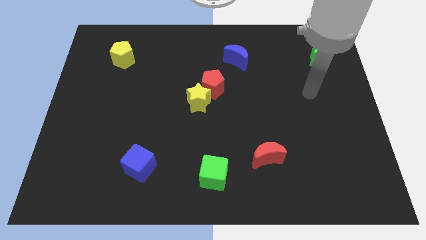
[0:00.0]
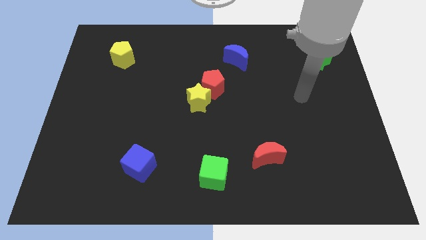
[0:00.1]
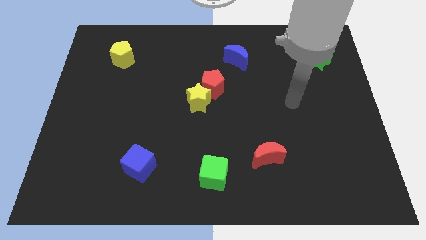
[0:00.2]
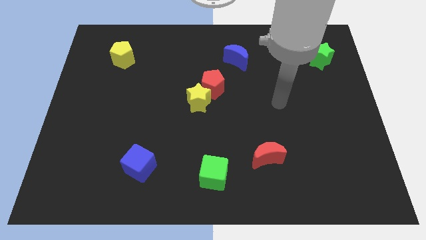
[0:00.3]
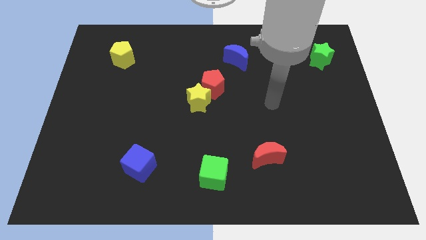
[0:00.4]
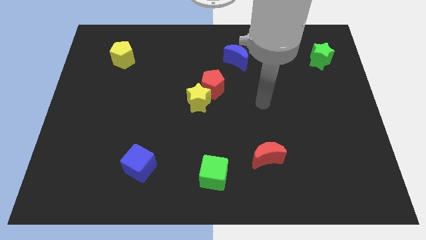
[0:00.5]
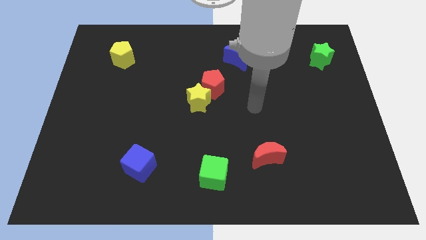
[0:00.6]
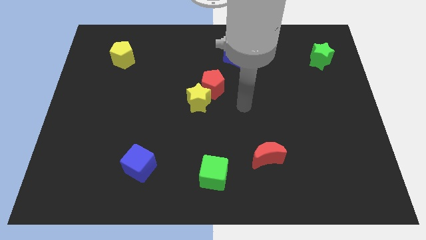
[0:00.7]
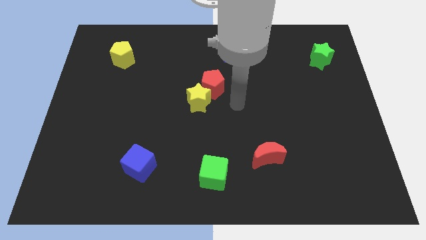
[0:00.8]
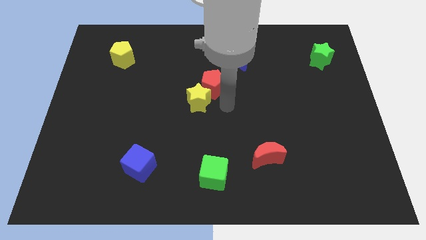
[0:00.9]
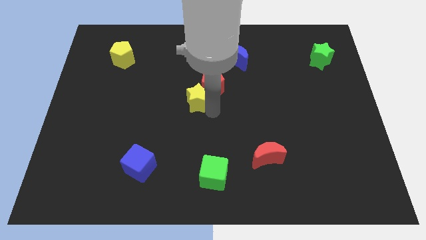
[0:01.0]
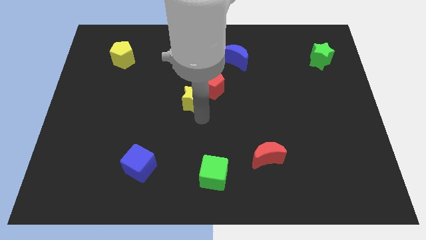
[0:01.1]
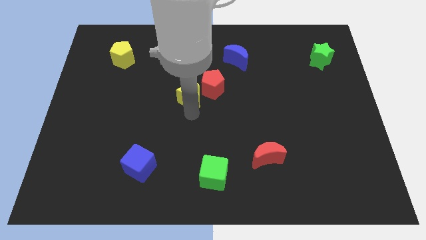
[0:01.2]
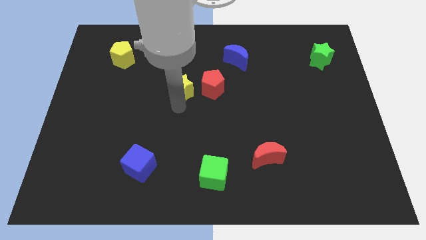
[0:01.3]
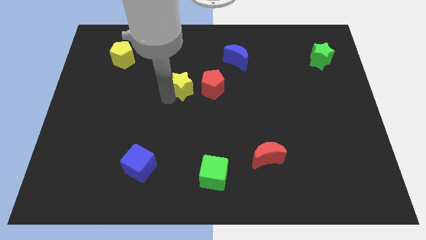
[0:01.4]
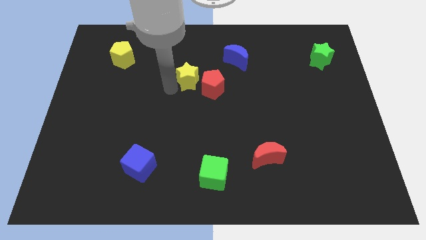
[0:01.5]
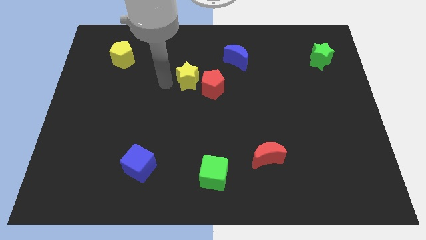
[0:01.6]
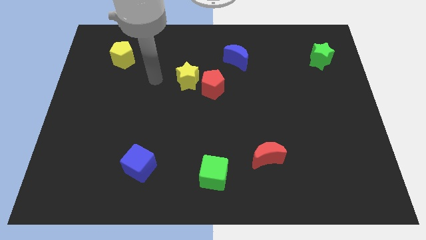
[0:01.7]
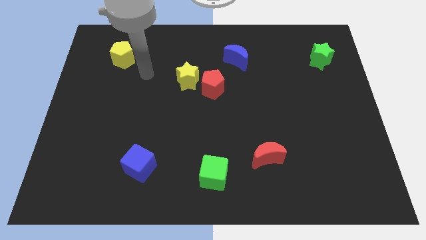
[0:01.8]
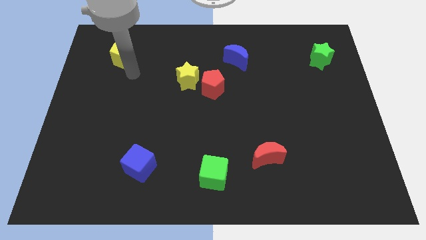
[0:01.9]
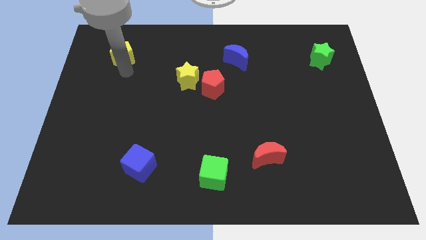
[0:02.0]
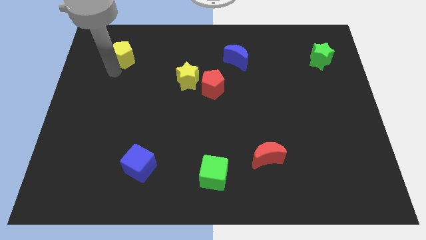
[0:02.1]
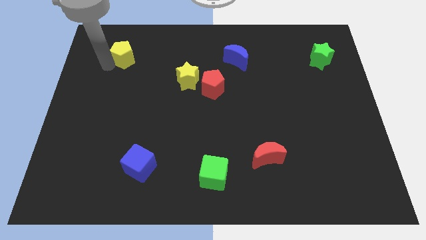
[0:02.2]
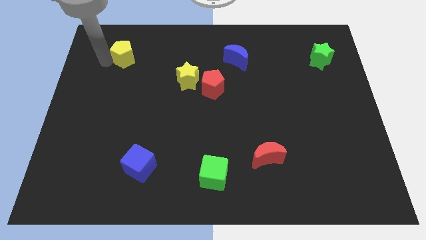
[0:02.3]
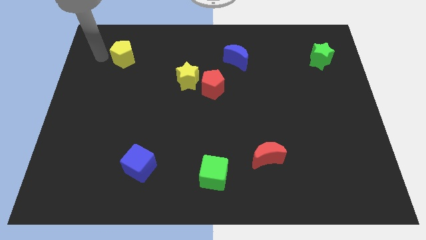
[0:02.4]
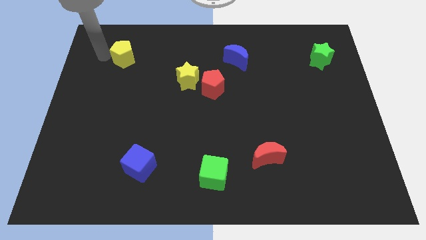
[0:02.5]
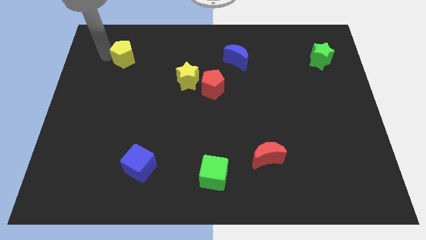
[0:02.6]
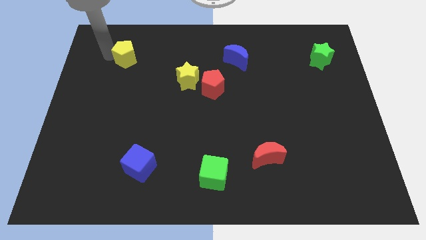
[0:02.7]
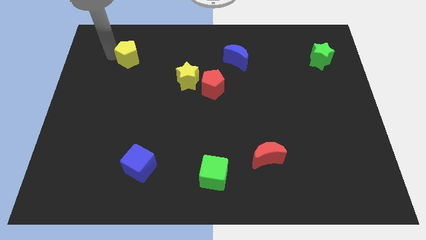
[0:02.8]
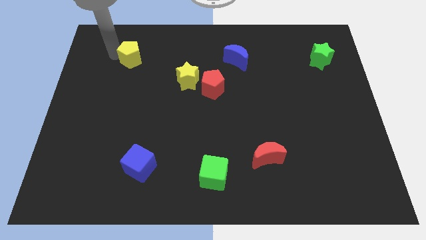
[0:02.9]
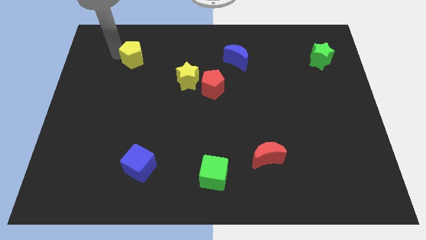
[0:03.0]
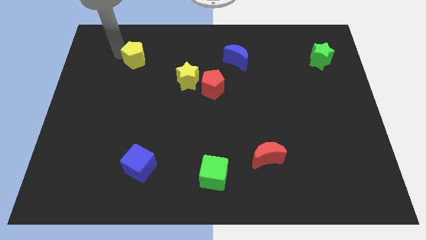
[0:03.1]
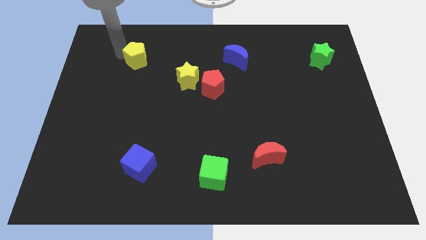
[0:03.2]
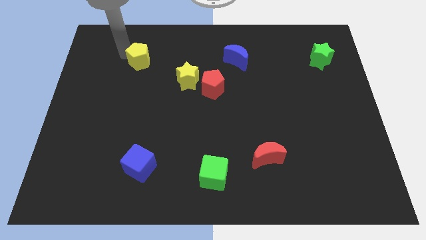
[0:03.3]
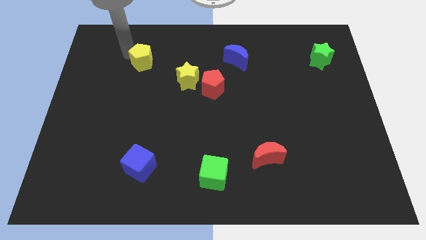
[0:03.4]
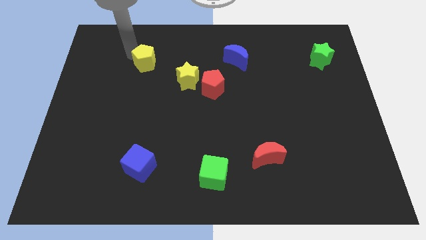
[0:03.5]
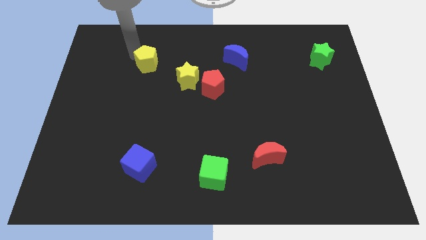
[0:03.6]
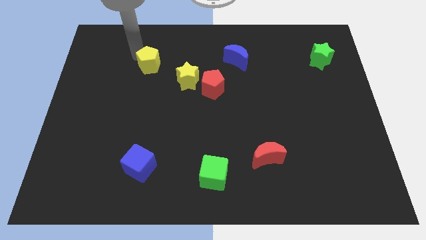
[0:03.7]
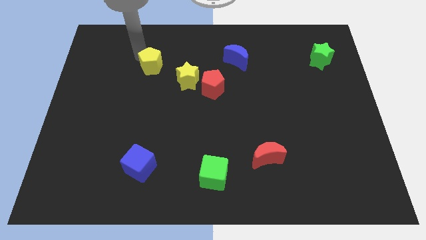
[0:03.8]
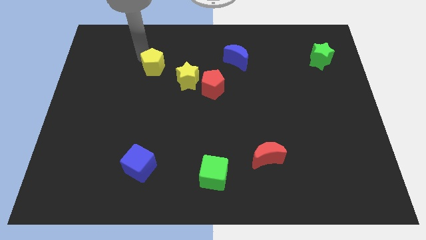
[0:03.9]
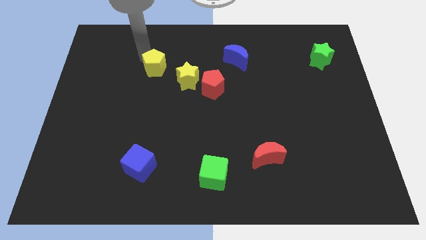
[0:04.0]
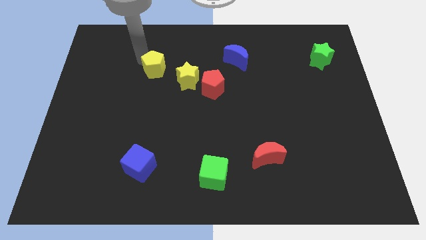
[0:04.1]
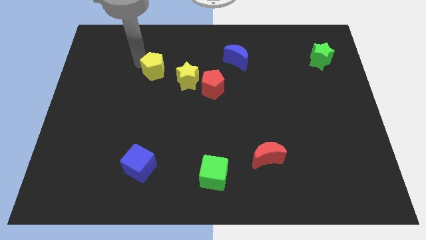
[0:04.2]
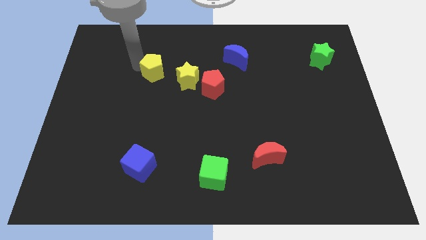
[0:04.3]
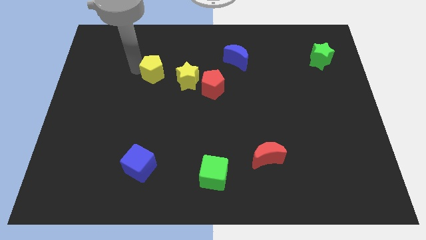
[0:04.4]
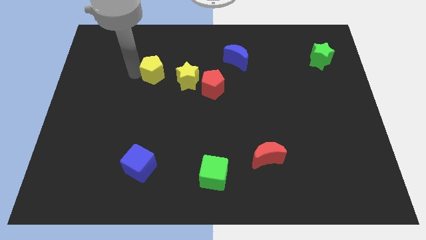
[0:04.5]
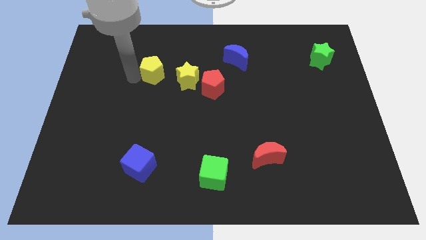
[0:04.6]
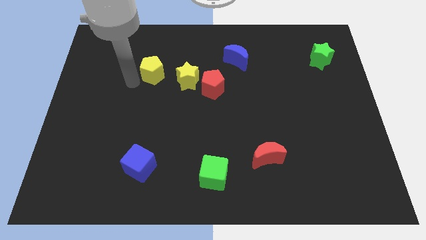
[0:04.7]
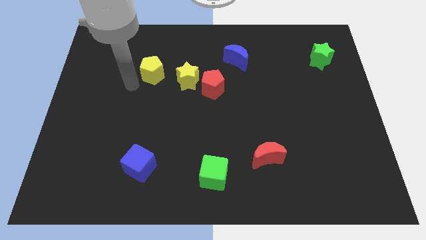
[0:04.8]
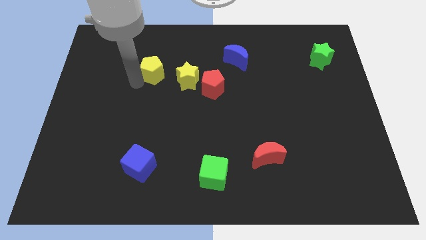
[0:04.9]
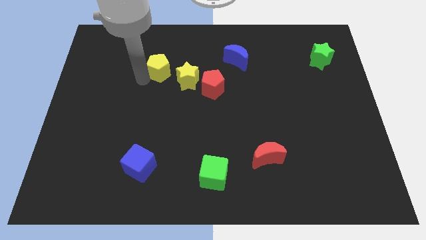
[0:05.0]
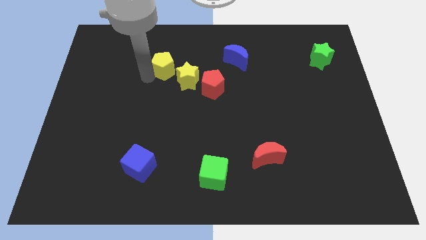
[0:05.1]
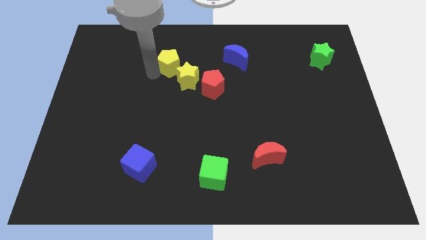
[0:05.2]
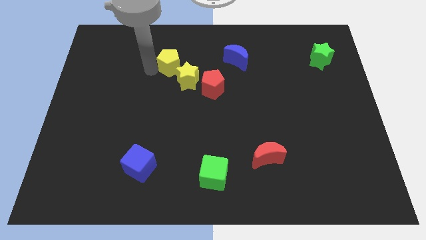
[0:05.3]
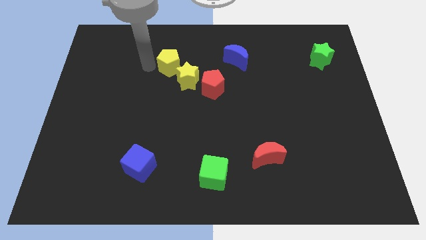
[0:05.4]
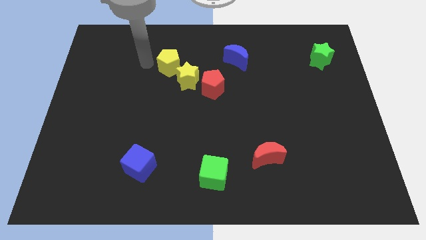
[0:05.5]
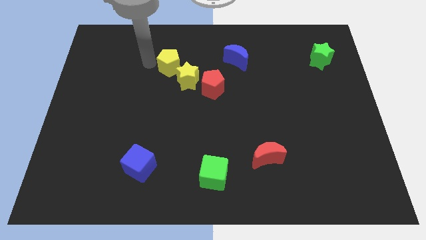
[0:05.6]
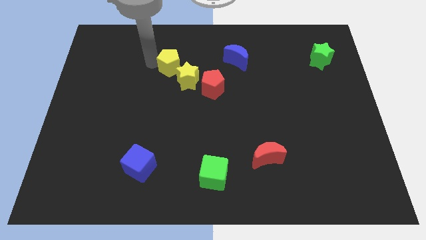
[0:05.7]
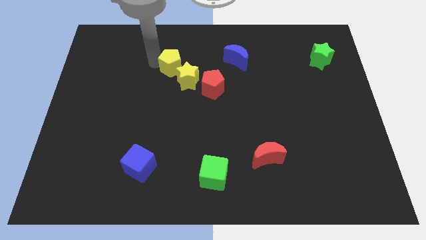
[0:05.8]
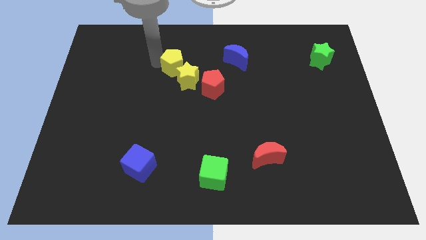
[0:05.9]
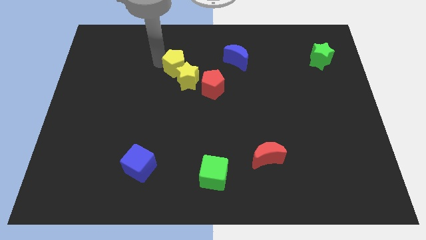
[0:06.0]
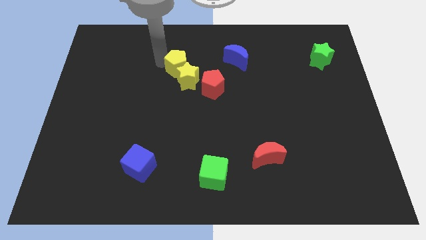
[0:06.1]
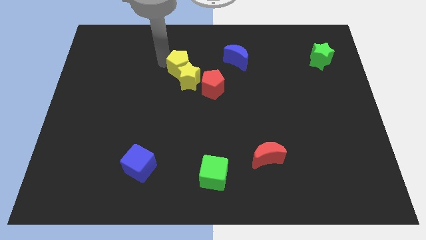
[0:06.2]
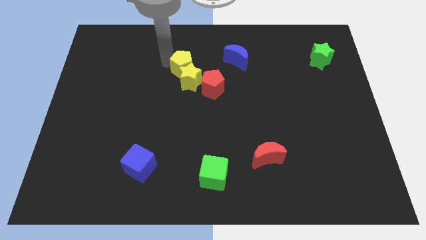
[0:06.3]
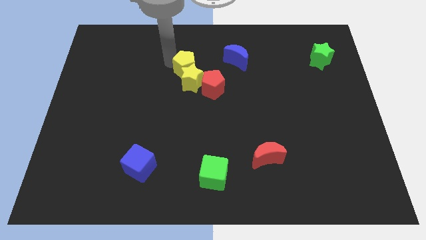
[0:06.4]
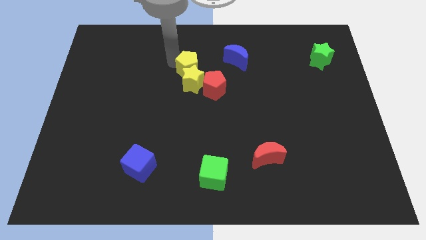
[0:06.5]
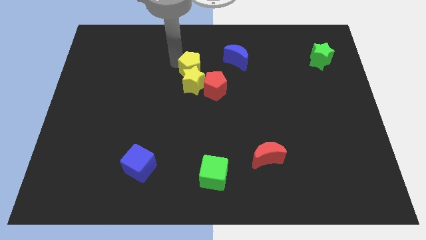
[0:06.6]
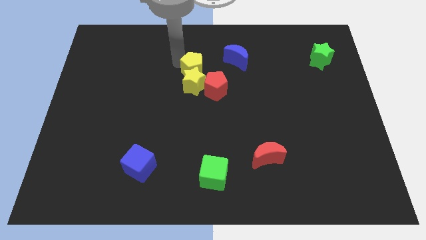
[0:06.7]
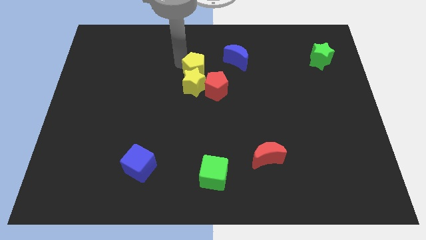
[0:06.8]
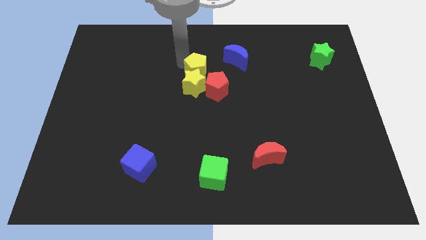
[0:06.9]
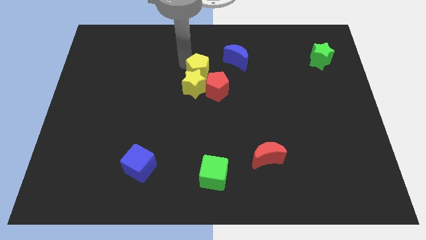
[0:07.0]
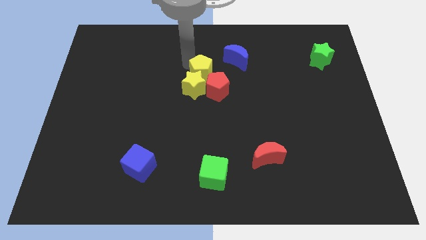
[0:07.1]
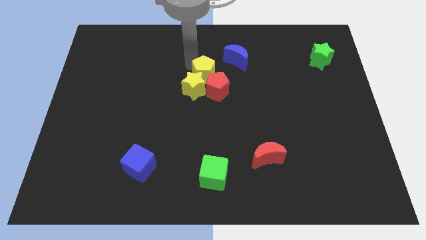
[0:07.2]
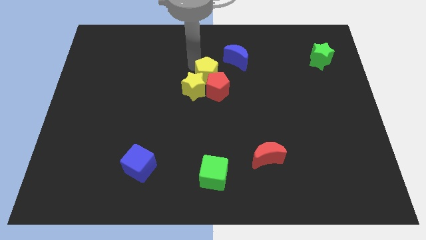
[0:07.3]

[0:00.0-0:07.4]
slide the yellow pentagon just right of the yellow star
